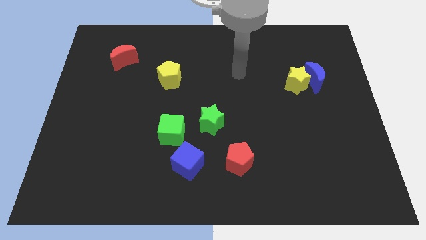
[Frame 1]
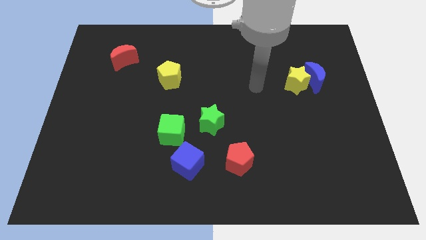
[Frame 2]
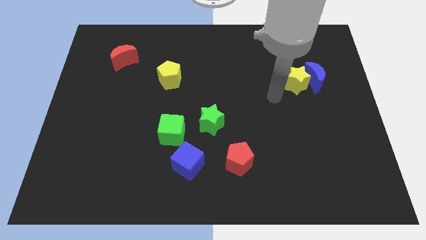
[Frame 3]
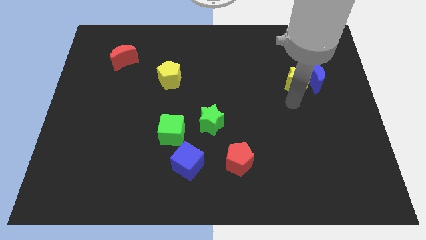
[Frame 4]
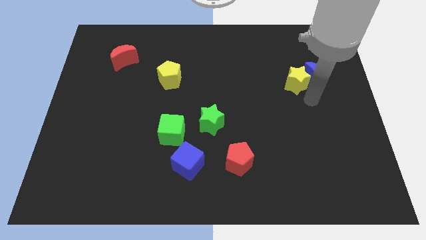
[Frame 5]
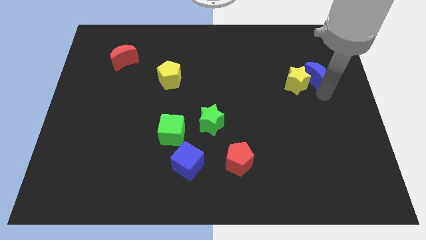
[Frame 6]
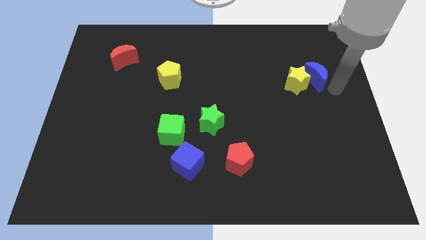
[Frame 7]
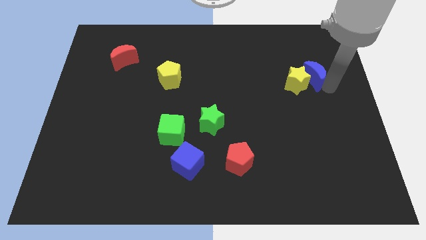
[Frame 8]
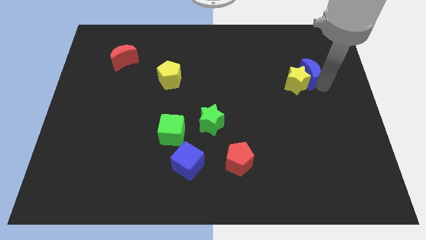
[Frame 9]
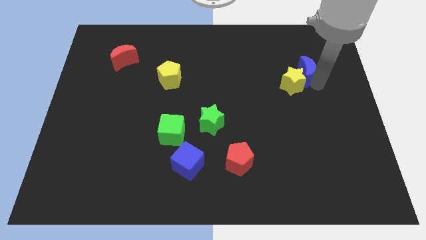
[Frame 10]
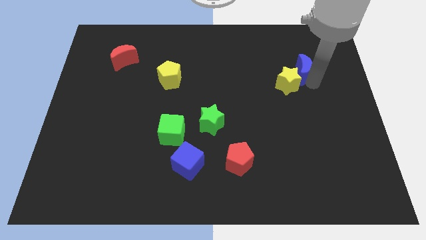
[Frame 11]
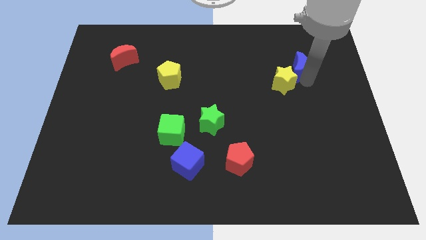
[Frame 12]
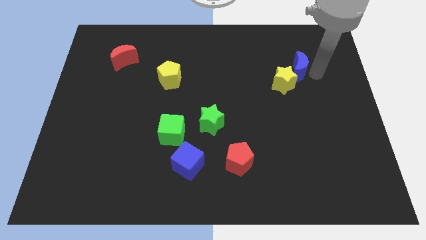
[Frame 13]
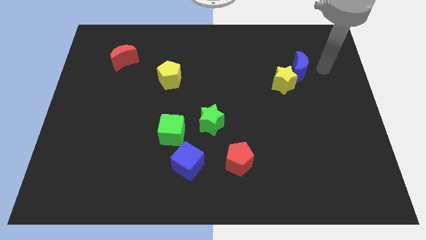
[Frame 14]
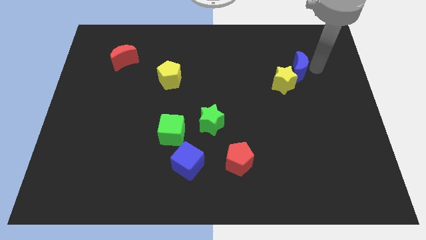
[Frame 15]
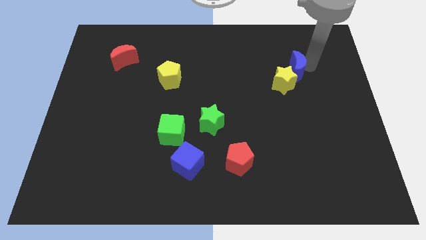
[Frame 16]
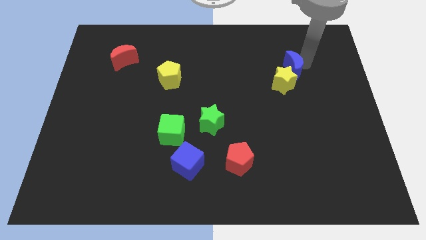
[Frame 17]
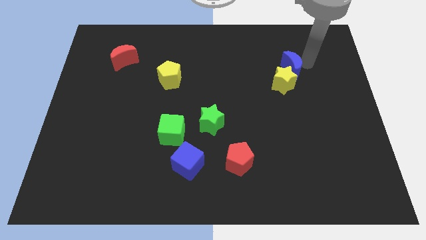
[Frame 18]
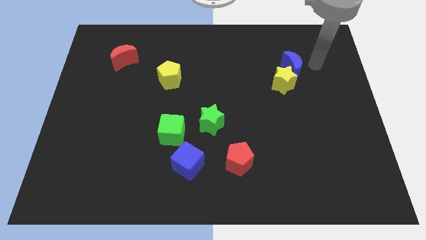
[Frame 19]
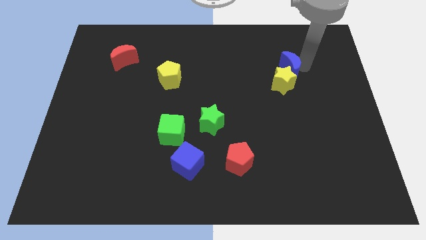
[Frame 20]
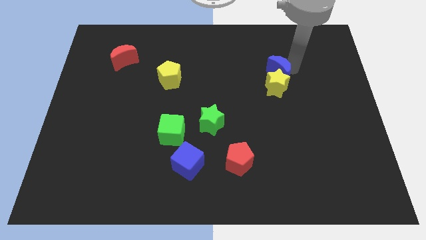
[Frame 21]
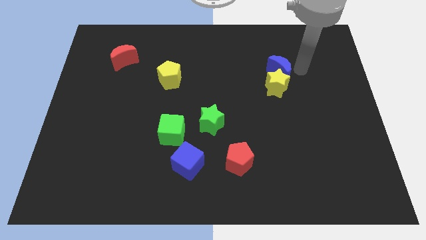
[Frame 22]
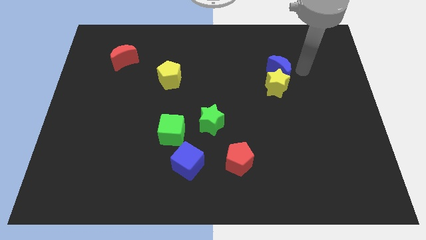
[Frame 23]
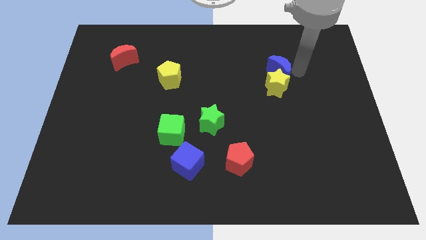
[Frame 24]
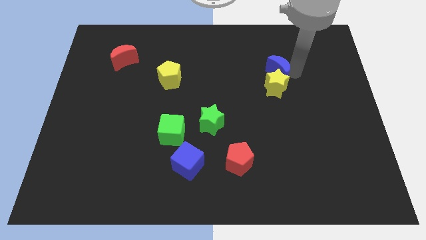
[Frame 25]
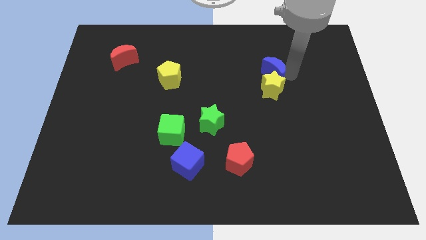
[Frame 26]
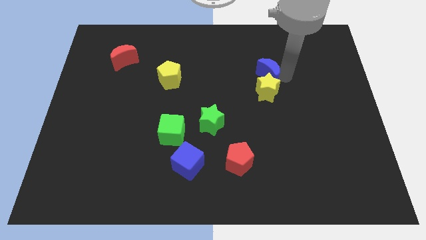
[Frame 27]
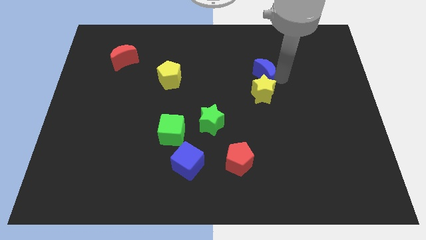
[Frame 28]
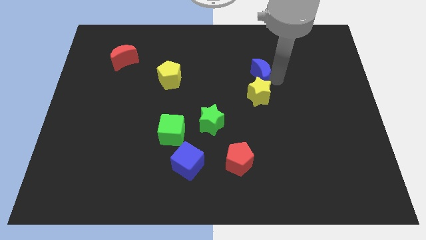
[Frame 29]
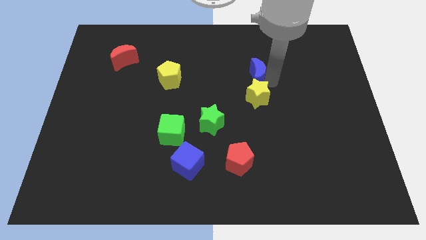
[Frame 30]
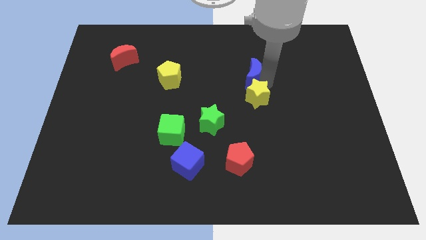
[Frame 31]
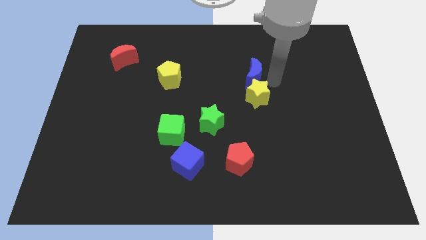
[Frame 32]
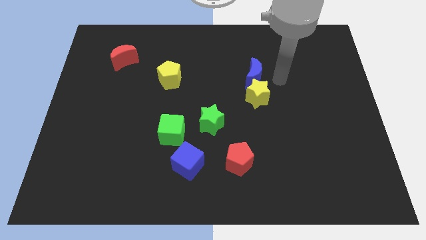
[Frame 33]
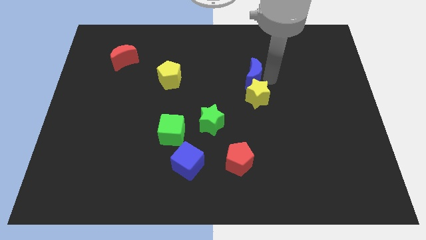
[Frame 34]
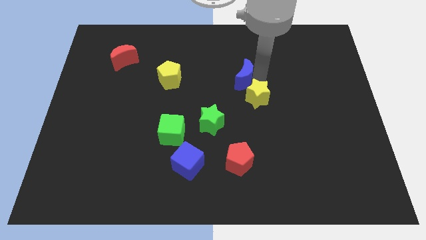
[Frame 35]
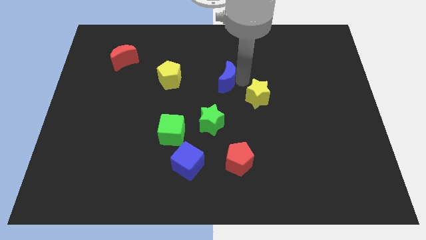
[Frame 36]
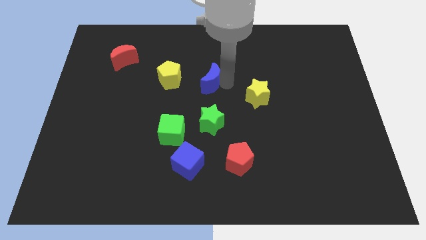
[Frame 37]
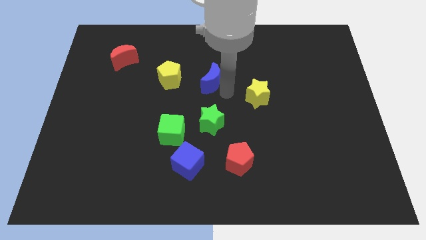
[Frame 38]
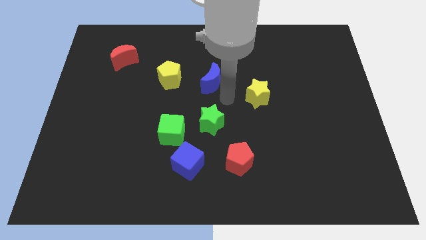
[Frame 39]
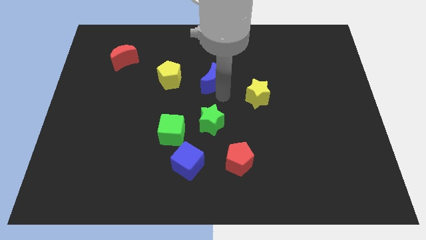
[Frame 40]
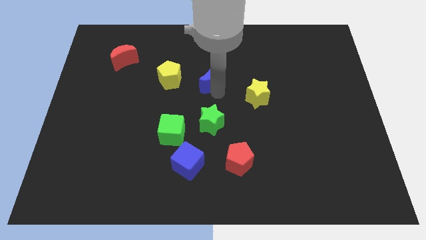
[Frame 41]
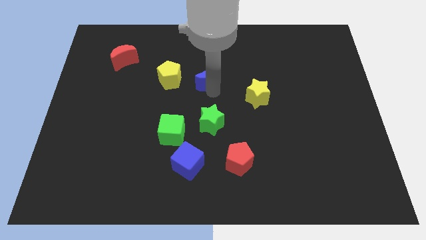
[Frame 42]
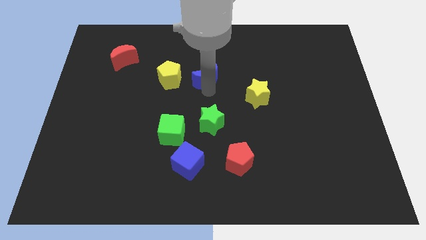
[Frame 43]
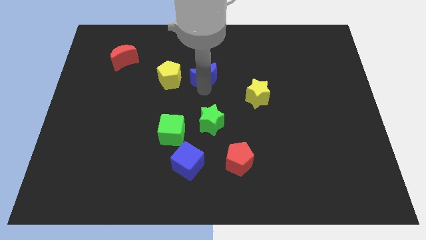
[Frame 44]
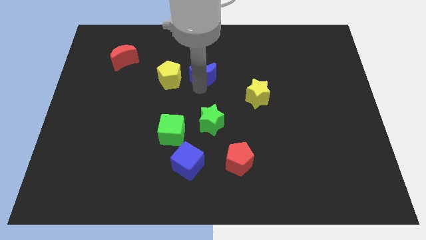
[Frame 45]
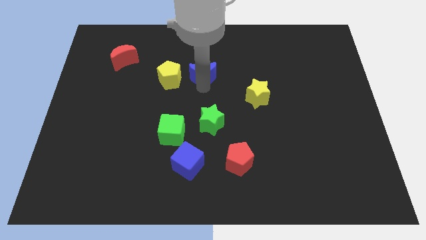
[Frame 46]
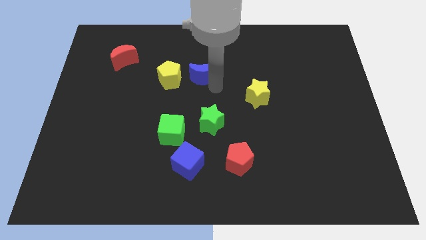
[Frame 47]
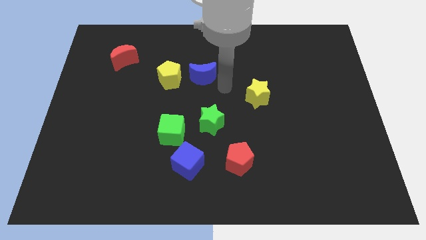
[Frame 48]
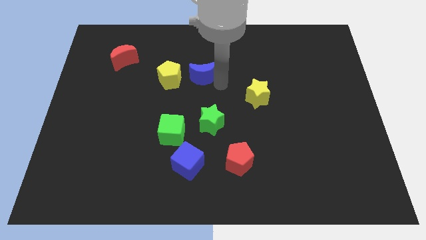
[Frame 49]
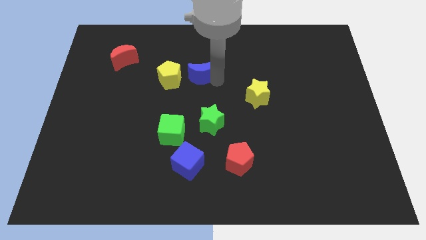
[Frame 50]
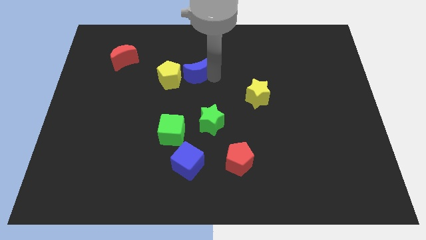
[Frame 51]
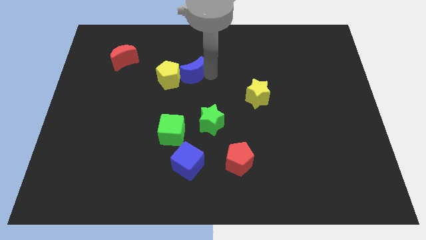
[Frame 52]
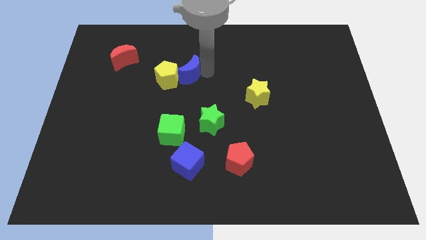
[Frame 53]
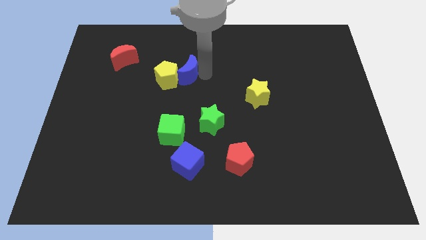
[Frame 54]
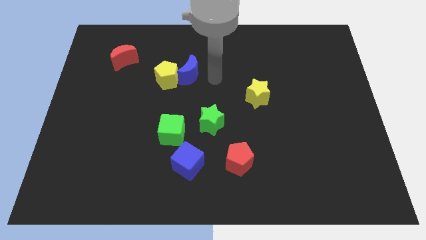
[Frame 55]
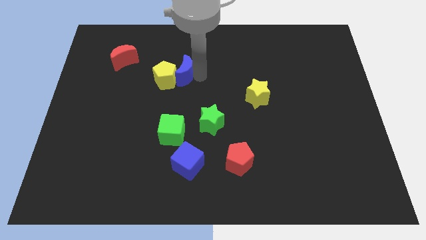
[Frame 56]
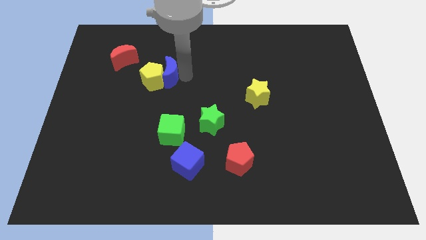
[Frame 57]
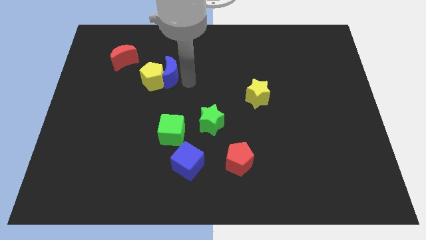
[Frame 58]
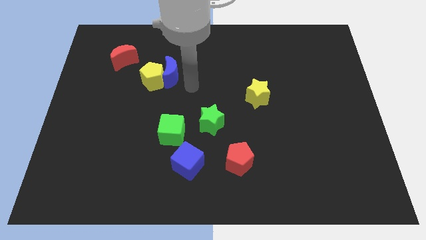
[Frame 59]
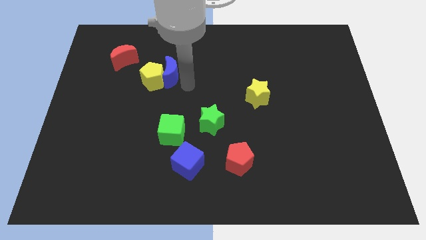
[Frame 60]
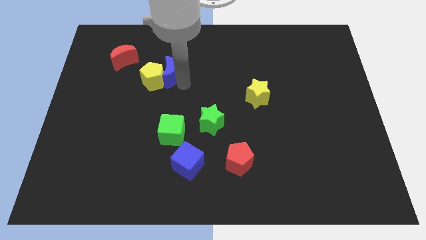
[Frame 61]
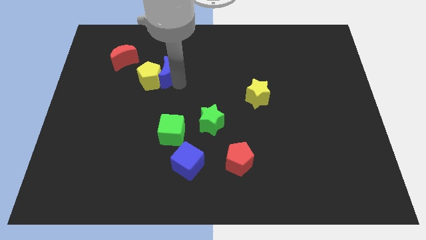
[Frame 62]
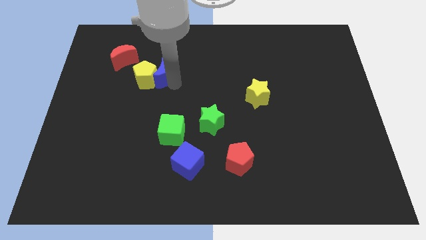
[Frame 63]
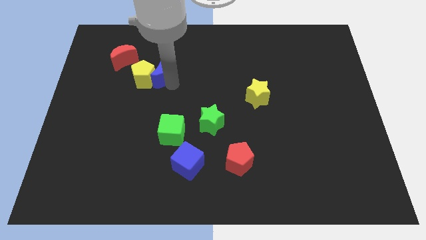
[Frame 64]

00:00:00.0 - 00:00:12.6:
slide the blue moon to the bottom right side of the red moon

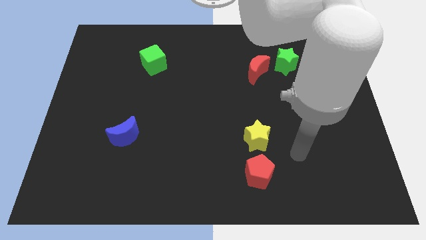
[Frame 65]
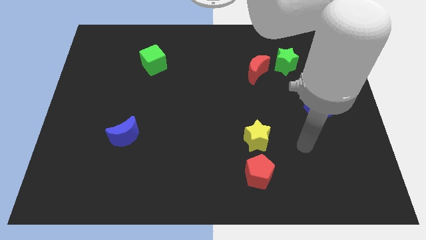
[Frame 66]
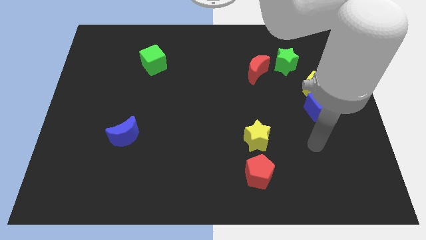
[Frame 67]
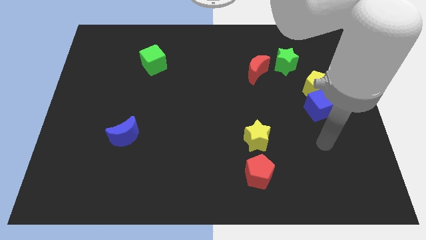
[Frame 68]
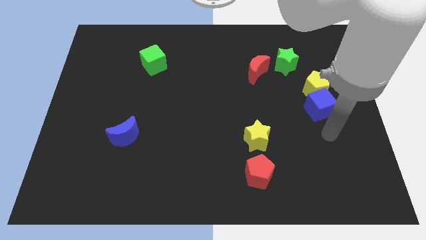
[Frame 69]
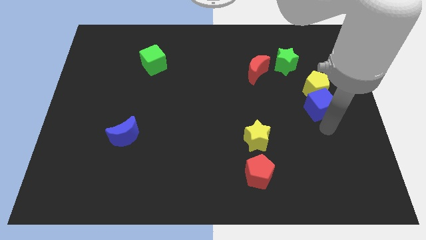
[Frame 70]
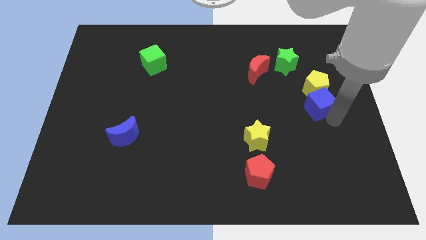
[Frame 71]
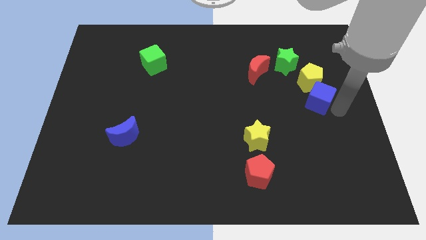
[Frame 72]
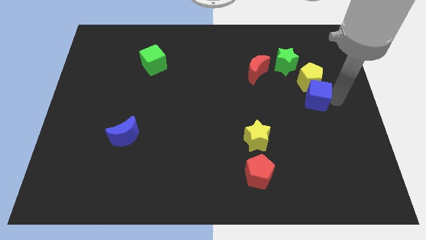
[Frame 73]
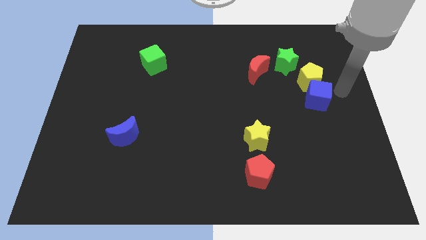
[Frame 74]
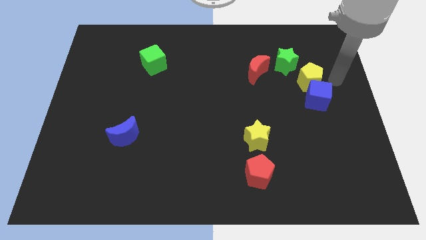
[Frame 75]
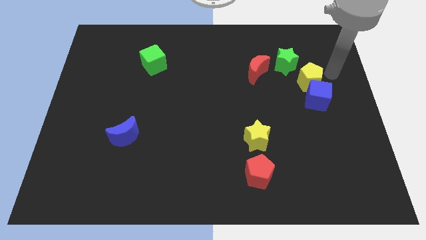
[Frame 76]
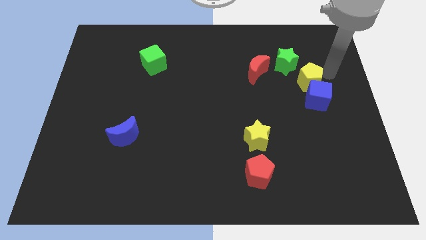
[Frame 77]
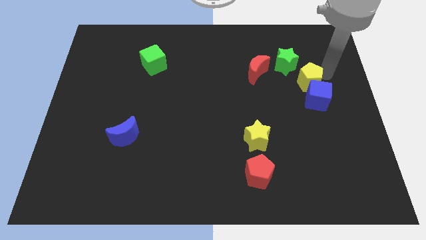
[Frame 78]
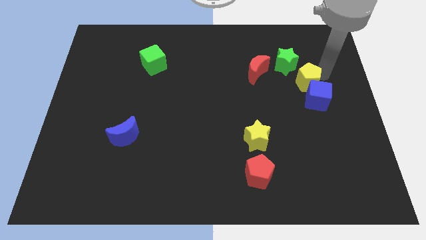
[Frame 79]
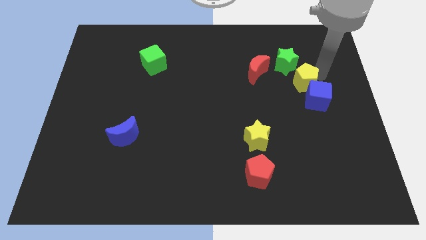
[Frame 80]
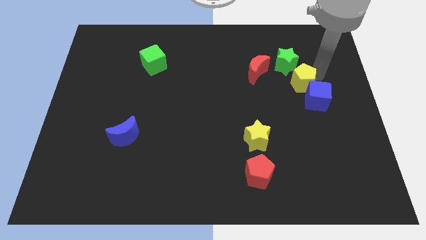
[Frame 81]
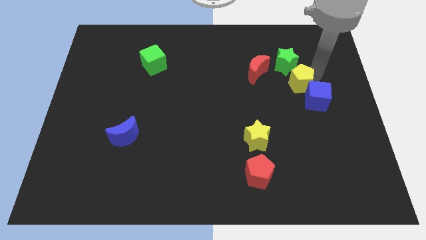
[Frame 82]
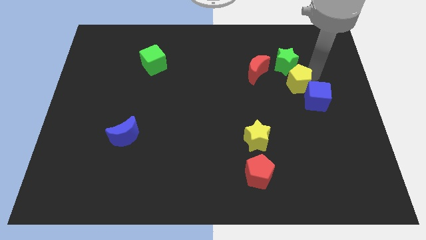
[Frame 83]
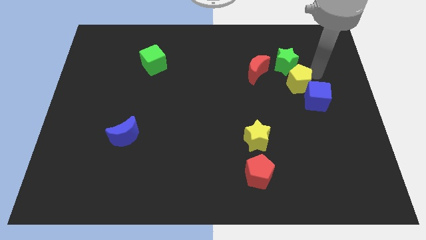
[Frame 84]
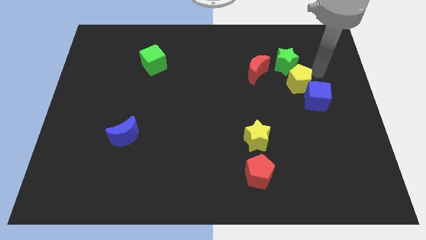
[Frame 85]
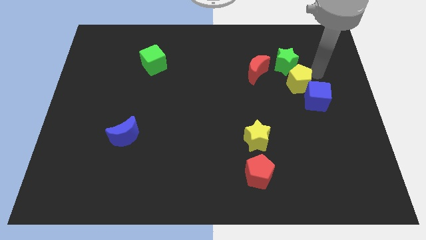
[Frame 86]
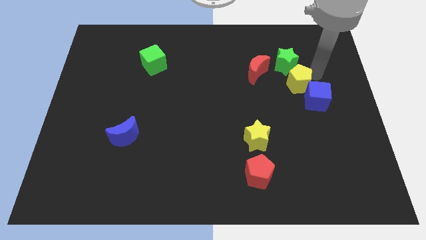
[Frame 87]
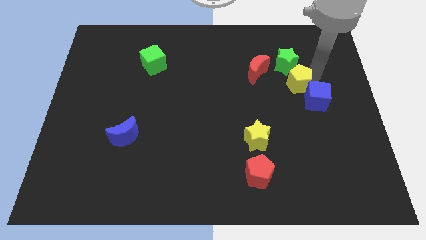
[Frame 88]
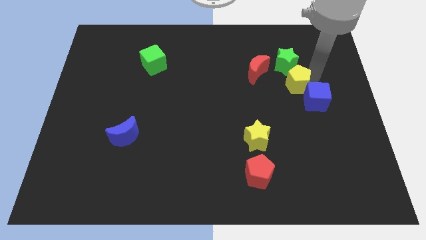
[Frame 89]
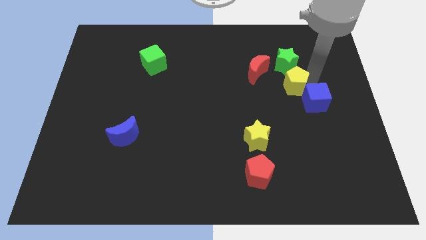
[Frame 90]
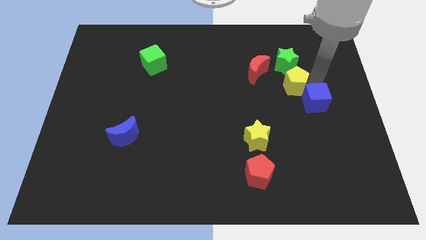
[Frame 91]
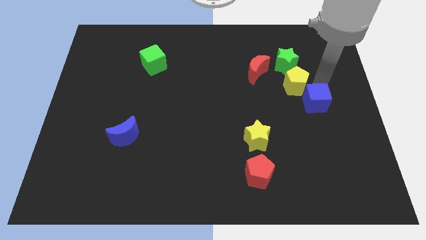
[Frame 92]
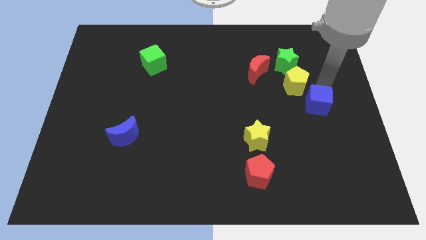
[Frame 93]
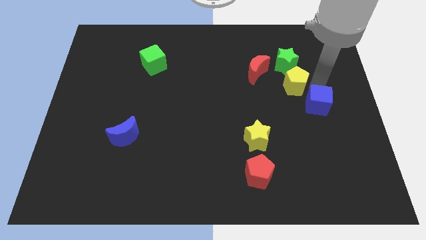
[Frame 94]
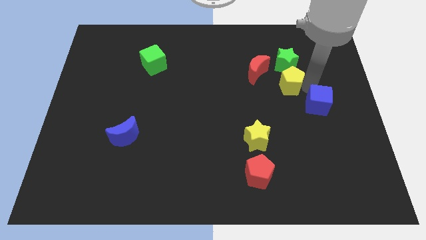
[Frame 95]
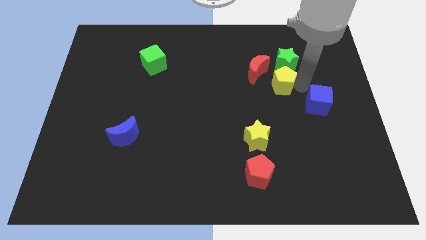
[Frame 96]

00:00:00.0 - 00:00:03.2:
put the yellow pentagon diagonally down and to the left of the green star
